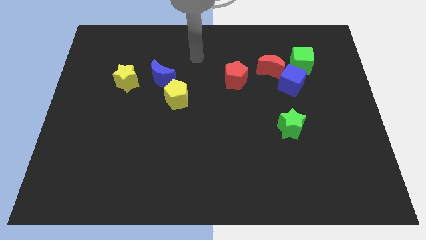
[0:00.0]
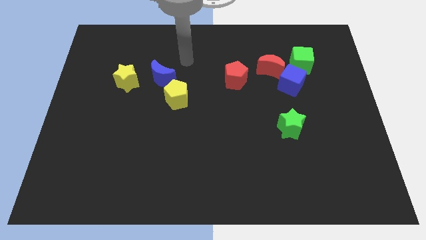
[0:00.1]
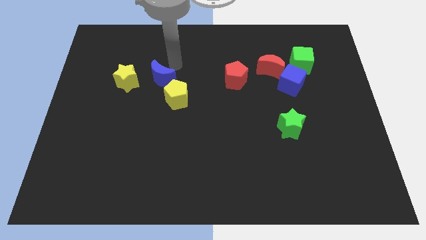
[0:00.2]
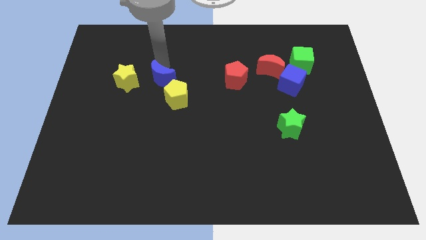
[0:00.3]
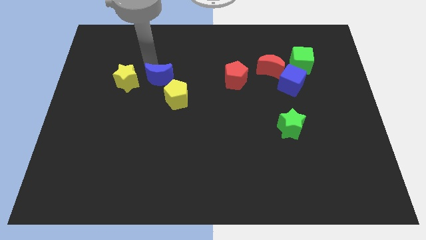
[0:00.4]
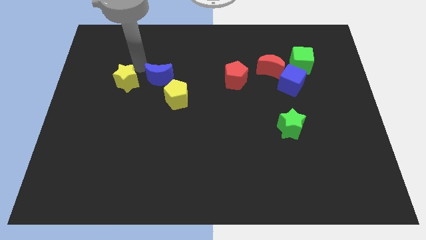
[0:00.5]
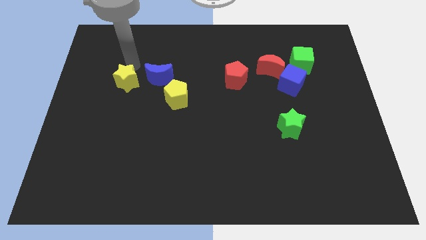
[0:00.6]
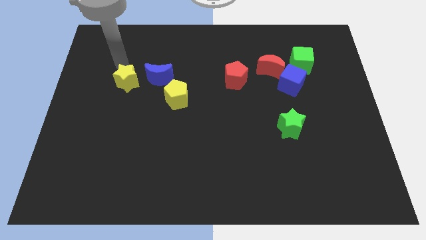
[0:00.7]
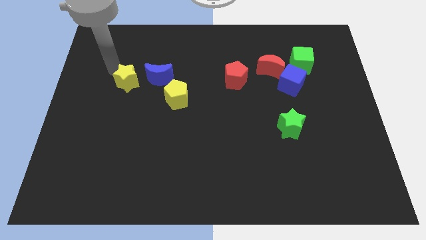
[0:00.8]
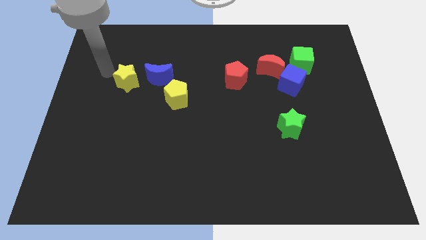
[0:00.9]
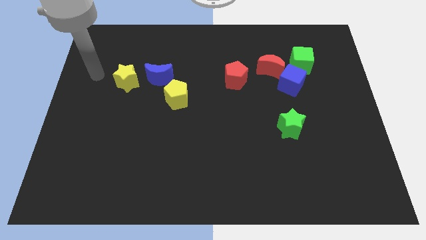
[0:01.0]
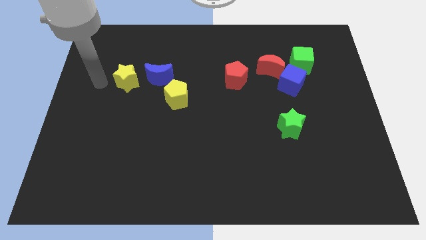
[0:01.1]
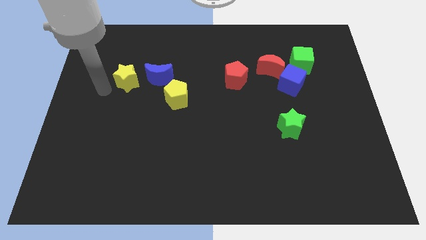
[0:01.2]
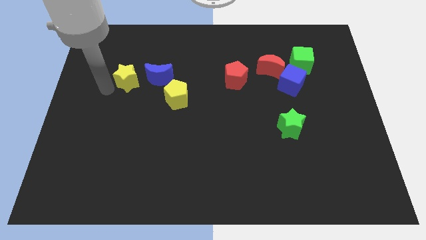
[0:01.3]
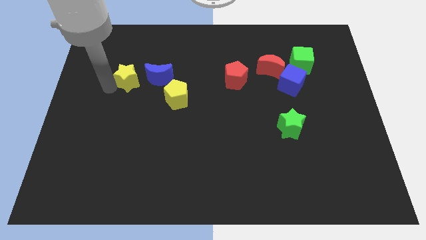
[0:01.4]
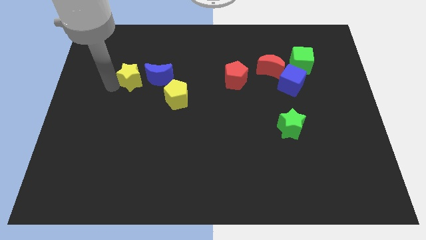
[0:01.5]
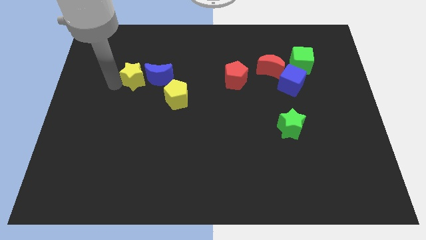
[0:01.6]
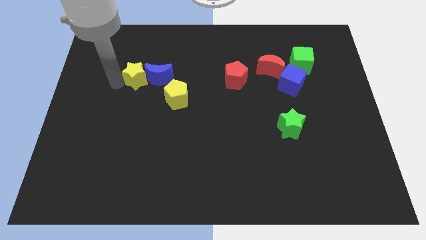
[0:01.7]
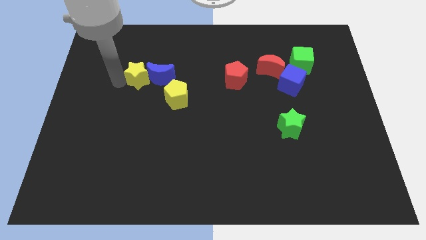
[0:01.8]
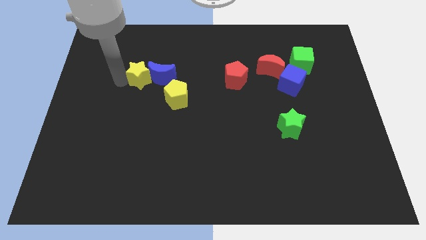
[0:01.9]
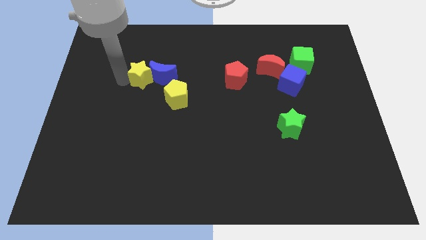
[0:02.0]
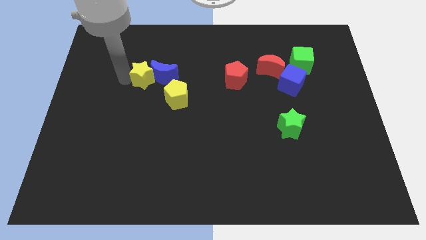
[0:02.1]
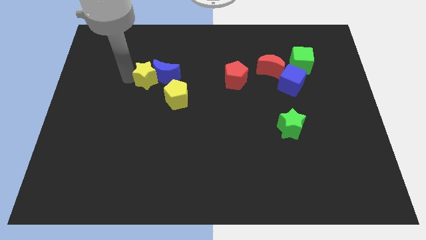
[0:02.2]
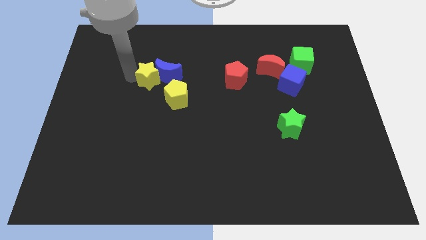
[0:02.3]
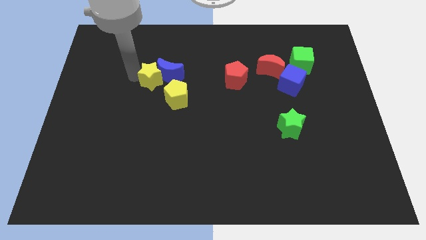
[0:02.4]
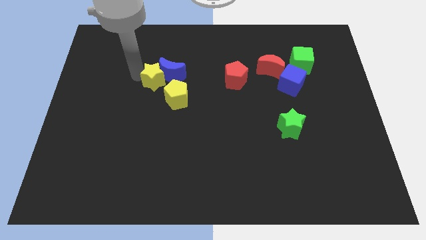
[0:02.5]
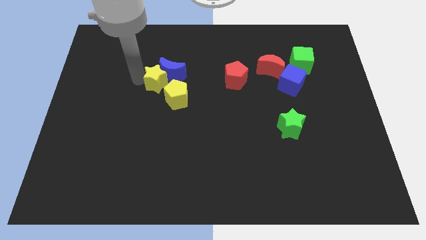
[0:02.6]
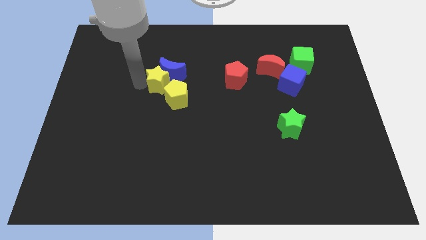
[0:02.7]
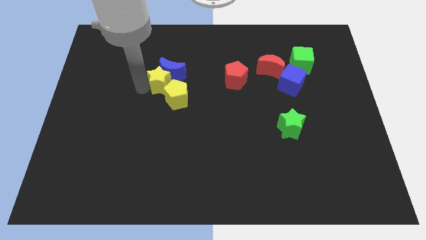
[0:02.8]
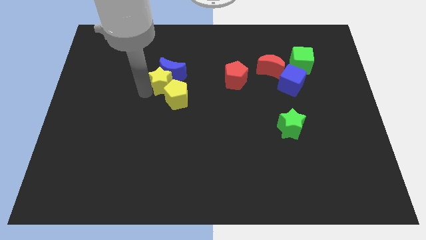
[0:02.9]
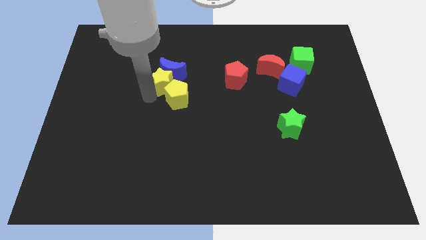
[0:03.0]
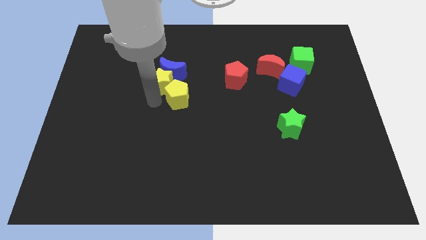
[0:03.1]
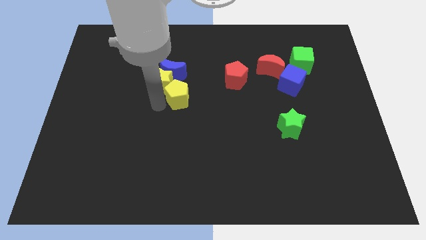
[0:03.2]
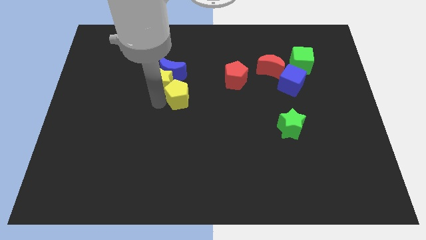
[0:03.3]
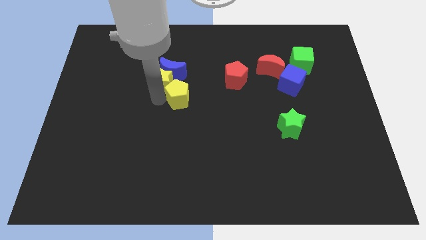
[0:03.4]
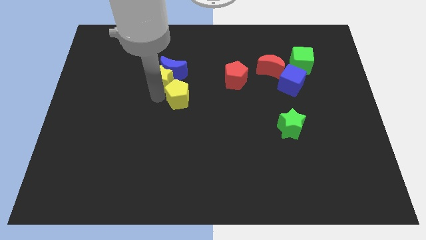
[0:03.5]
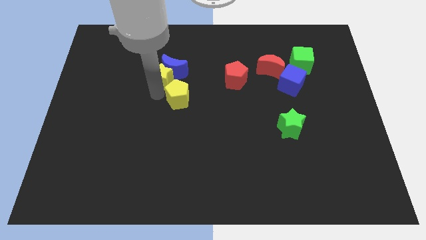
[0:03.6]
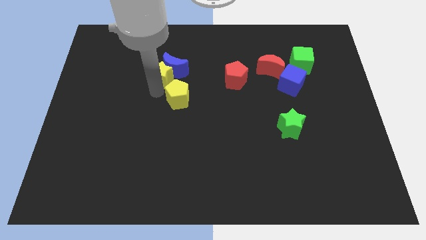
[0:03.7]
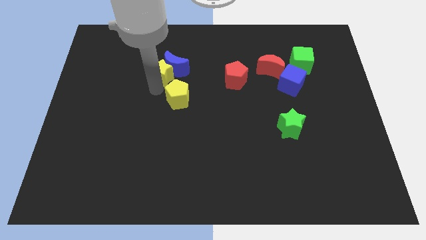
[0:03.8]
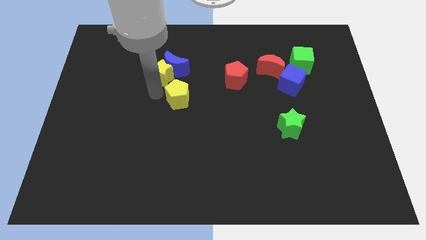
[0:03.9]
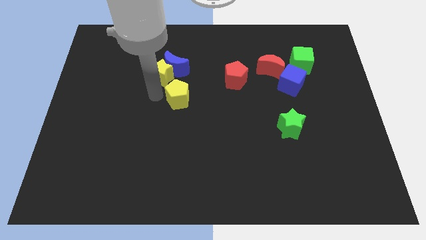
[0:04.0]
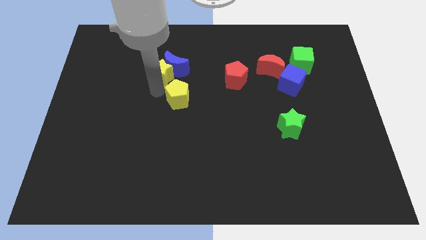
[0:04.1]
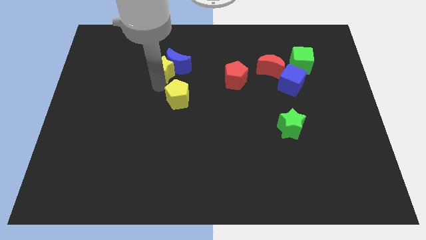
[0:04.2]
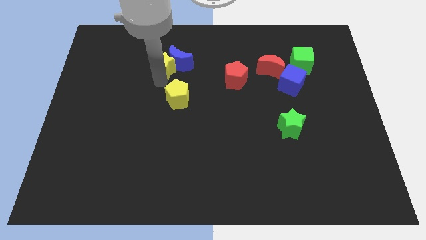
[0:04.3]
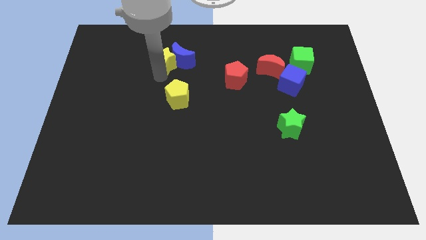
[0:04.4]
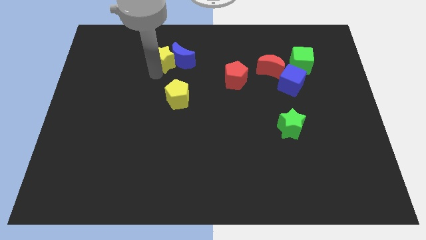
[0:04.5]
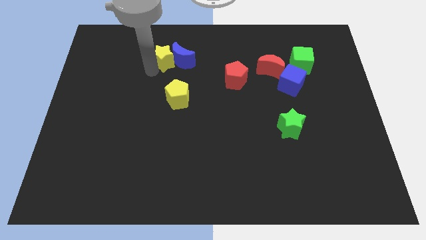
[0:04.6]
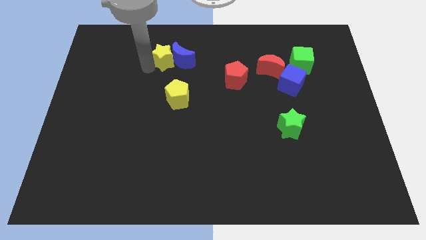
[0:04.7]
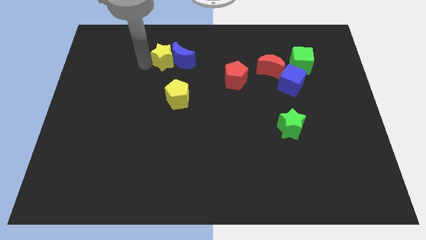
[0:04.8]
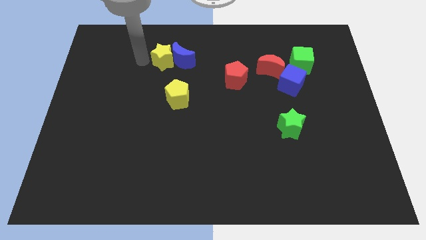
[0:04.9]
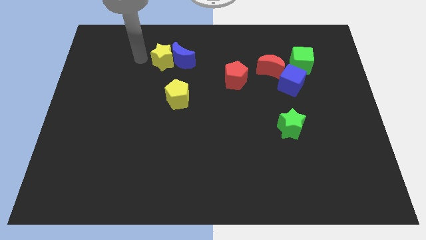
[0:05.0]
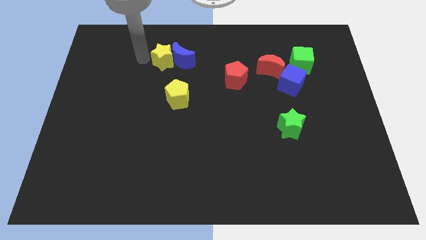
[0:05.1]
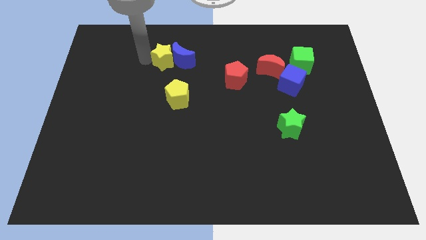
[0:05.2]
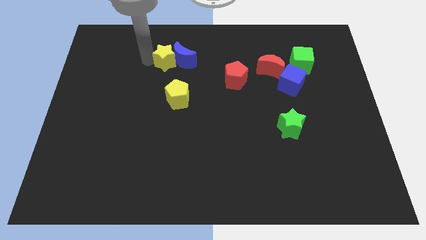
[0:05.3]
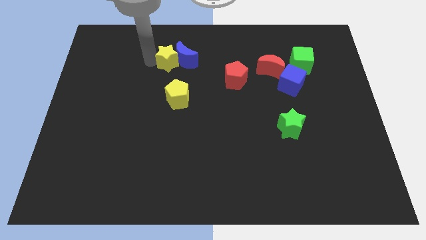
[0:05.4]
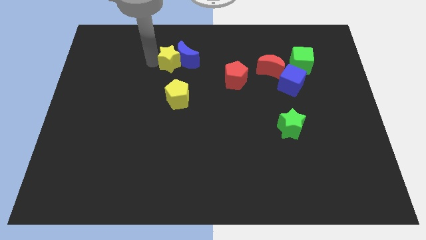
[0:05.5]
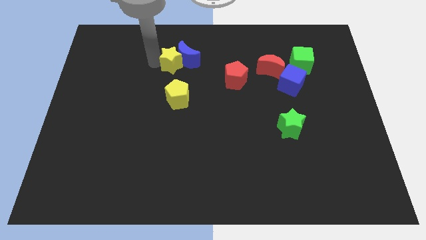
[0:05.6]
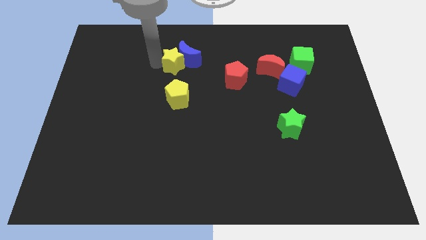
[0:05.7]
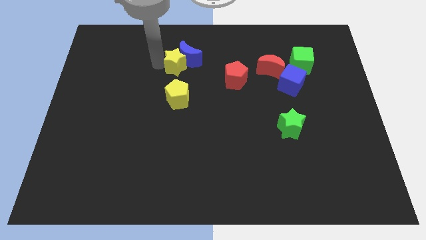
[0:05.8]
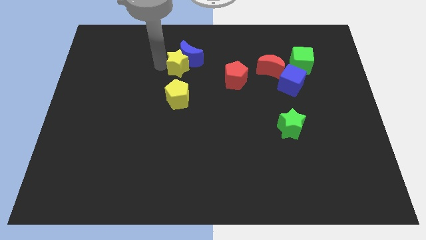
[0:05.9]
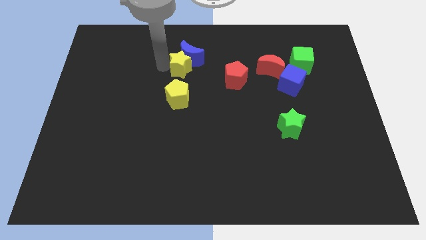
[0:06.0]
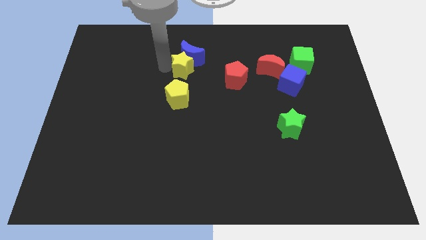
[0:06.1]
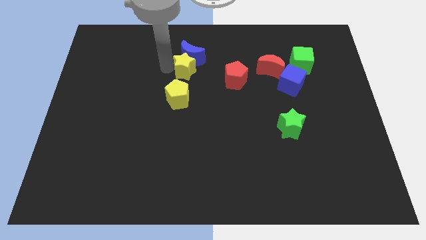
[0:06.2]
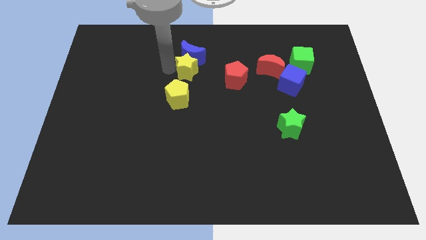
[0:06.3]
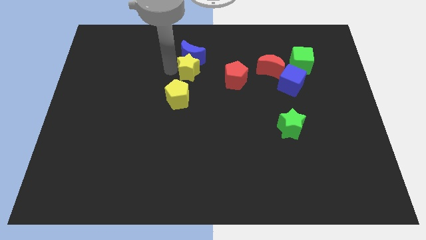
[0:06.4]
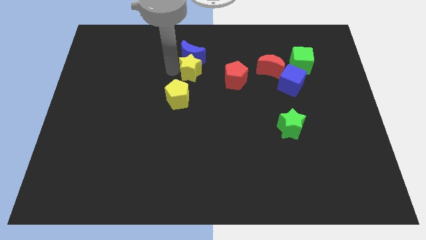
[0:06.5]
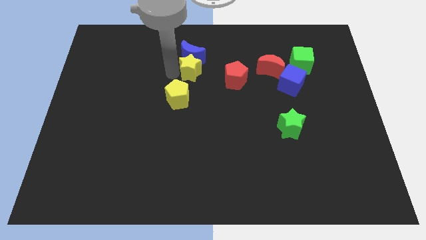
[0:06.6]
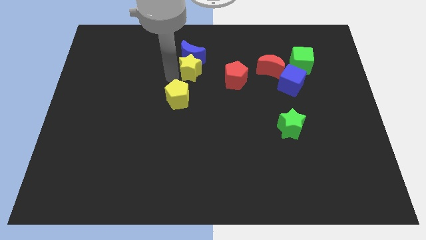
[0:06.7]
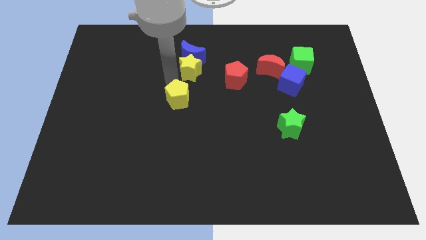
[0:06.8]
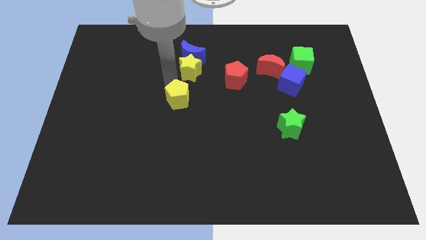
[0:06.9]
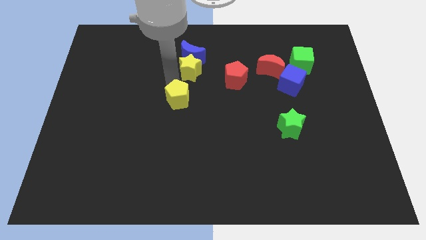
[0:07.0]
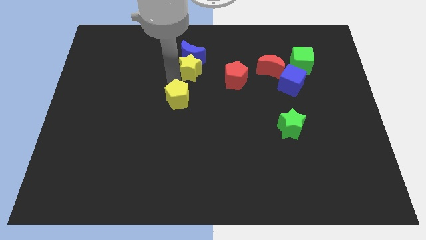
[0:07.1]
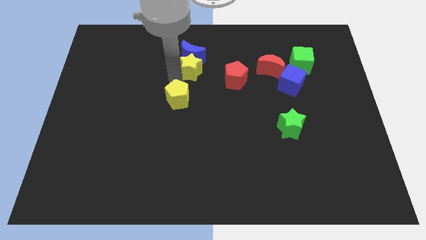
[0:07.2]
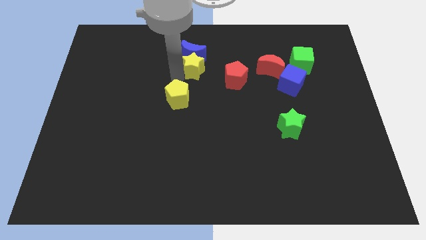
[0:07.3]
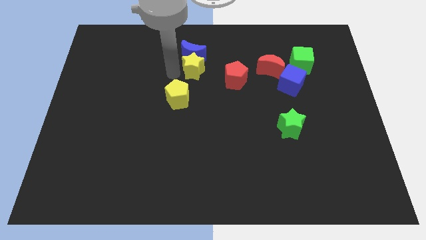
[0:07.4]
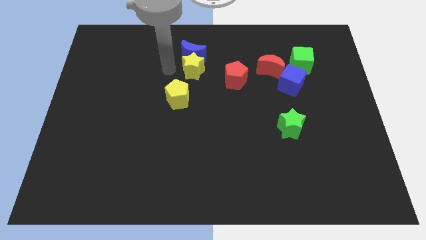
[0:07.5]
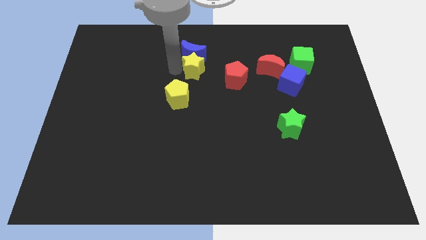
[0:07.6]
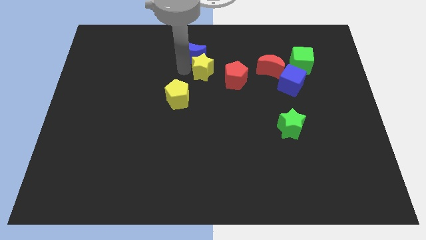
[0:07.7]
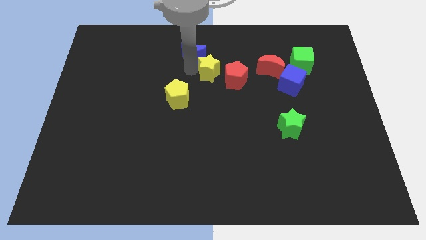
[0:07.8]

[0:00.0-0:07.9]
put the yellow star left of the red moon
